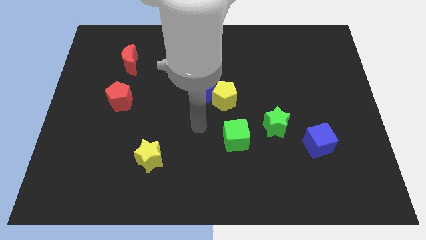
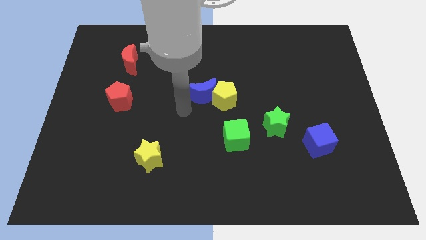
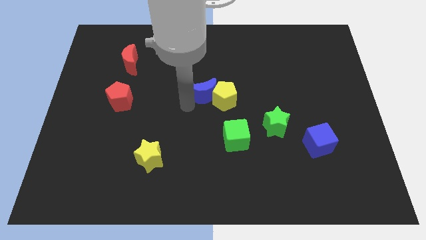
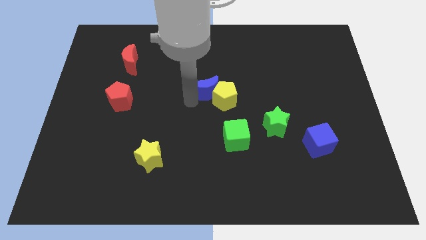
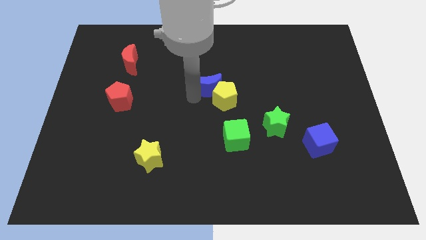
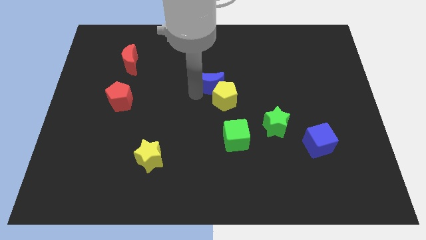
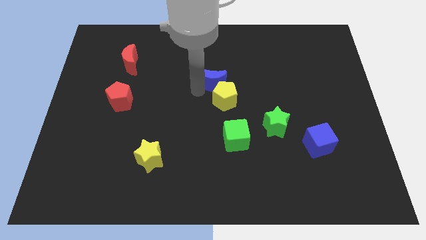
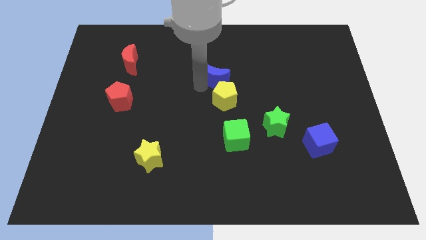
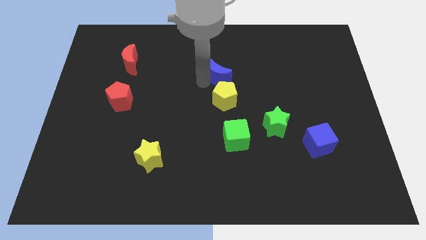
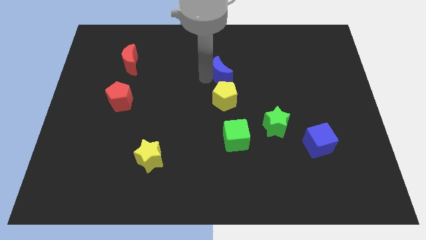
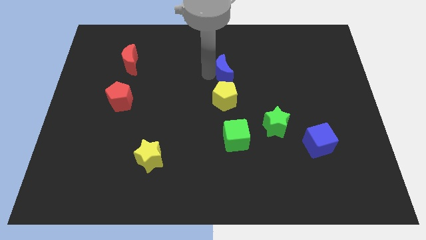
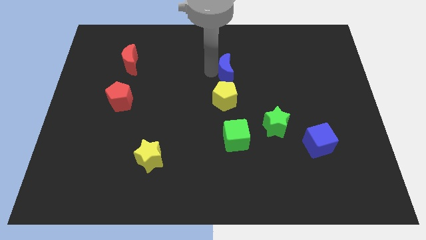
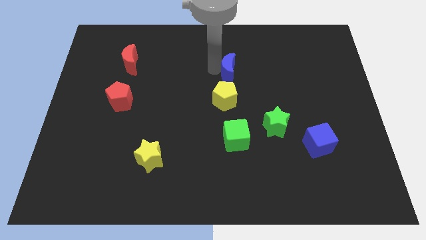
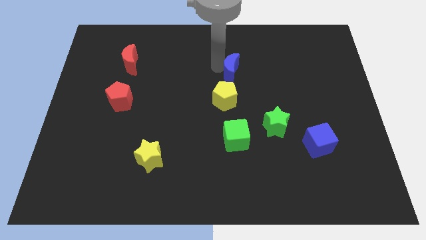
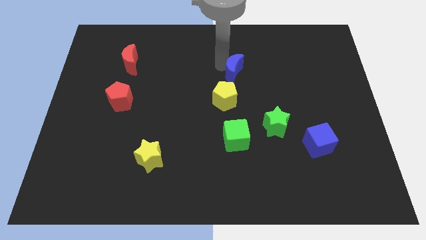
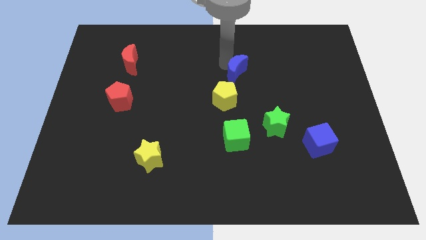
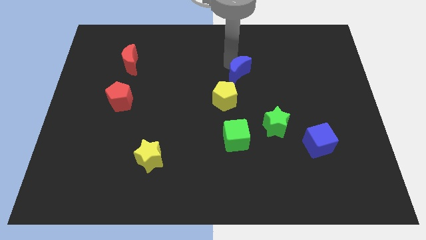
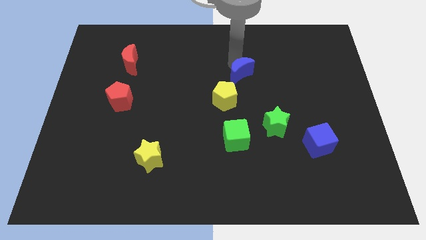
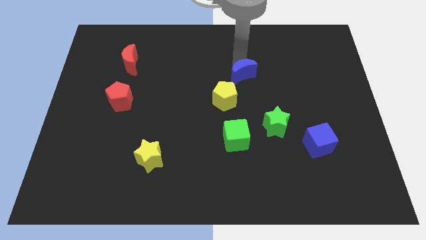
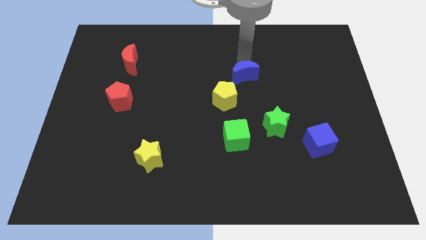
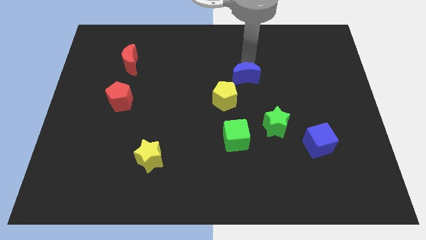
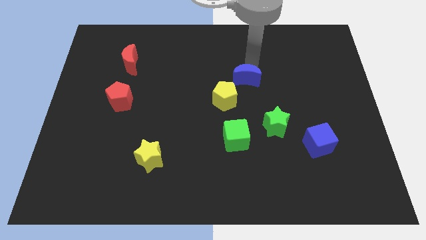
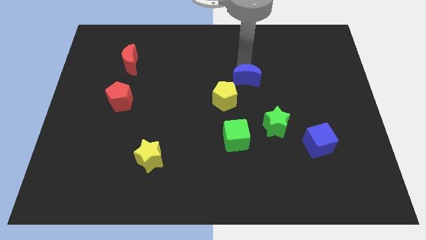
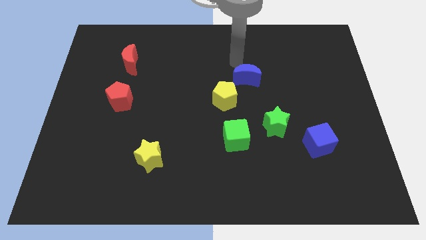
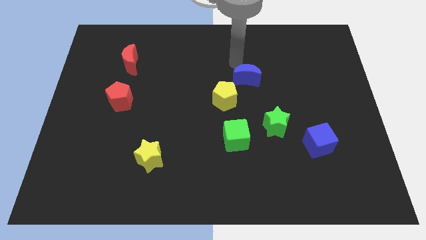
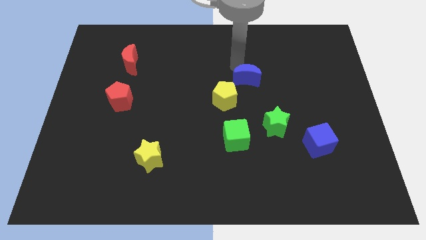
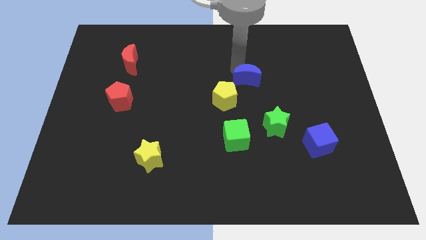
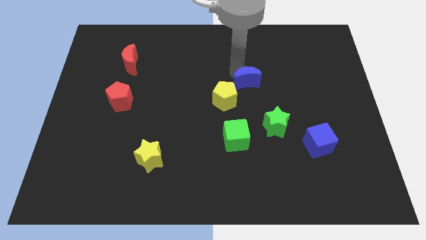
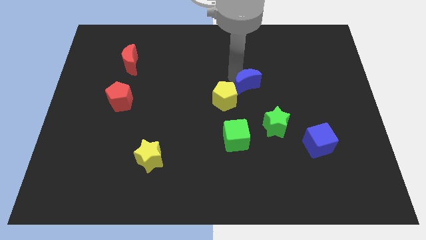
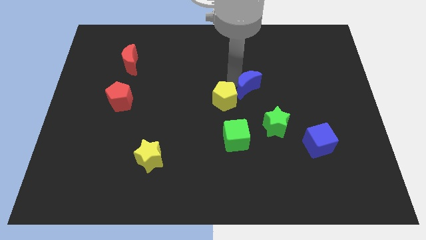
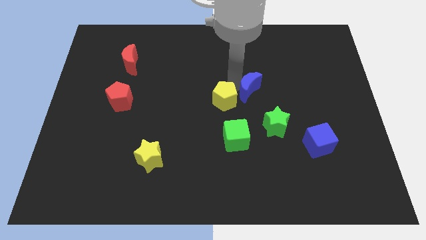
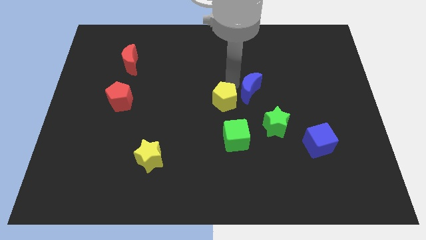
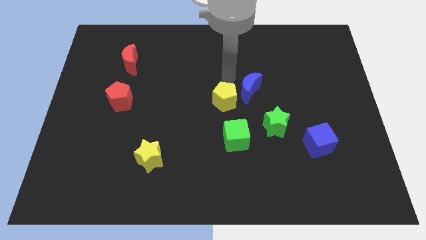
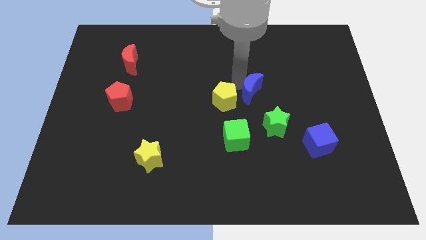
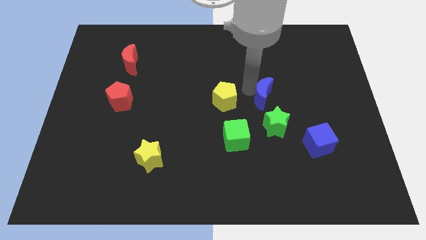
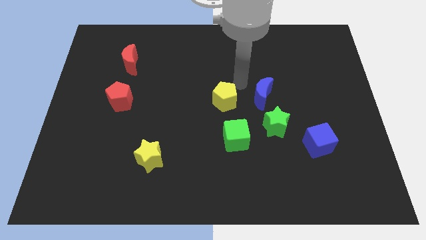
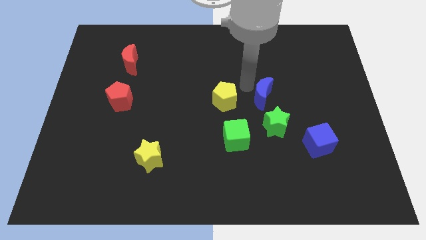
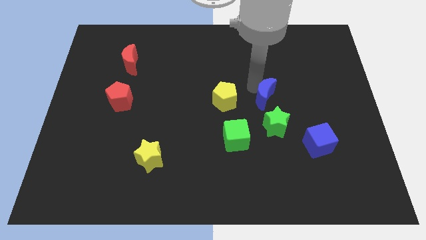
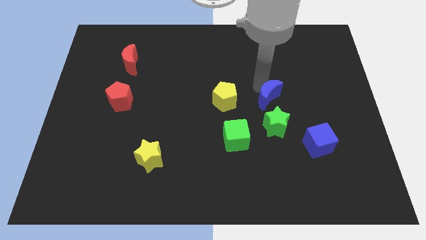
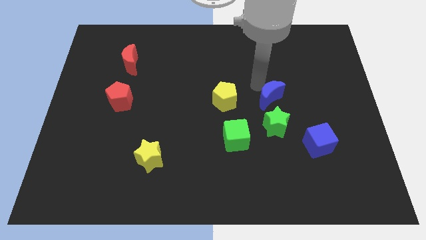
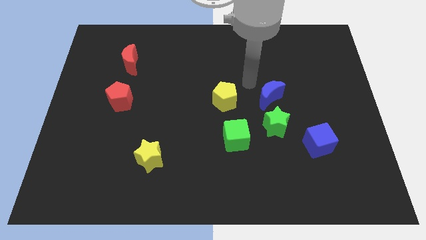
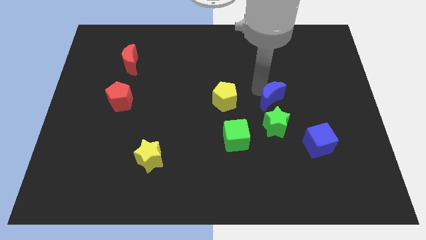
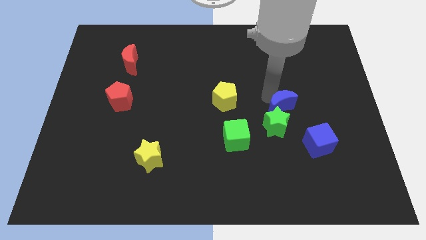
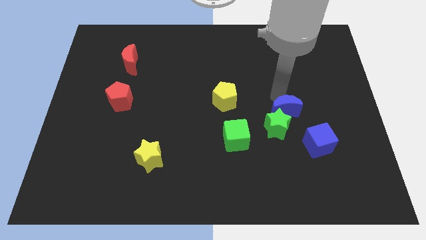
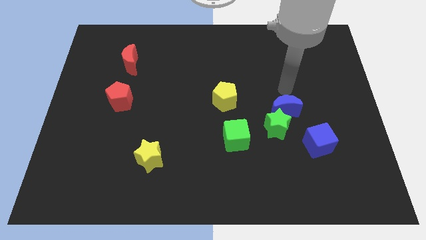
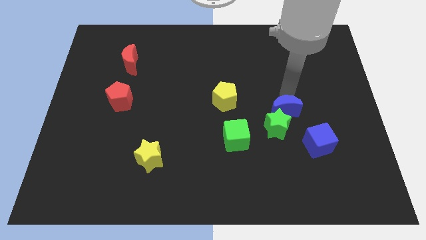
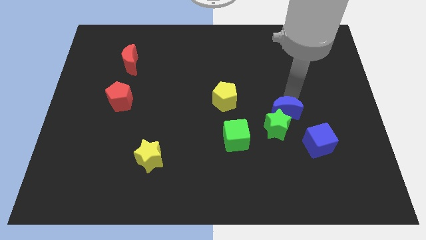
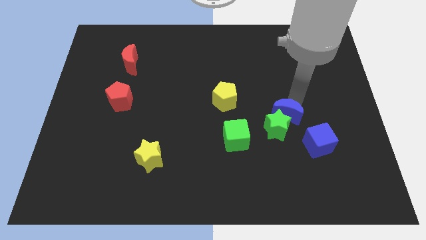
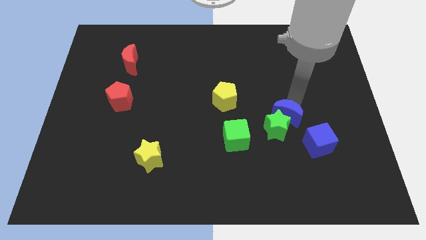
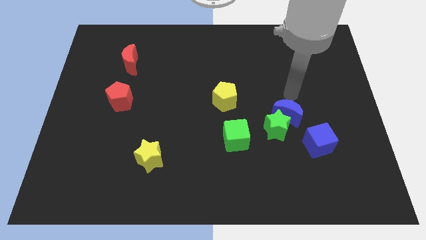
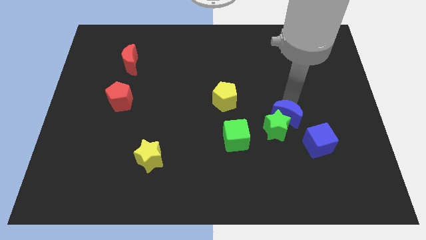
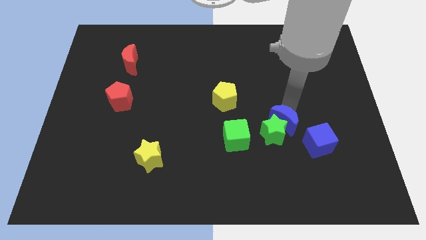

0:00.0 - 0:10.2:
move the blue moon right of the green cube

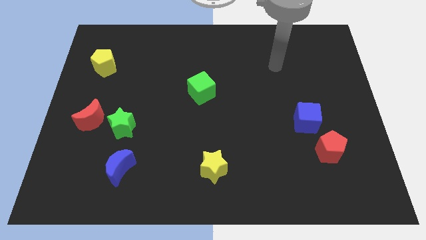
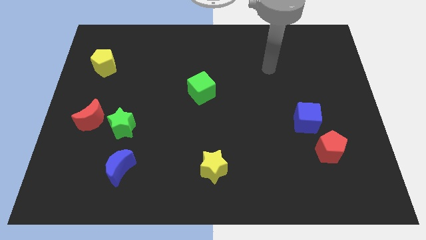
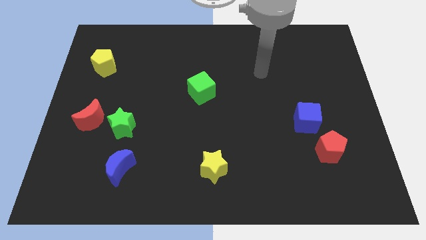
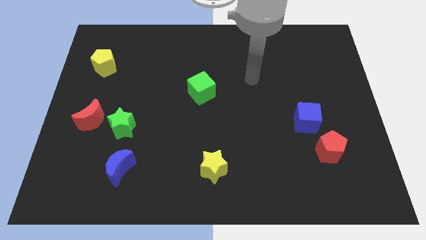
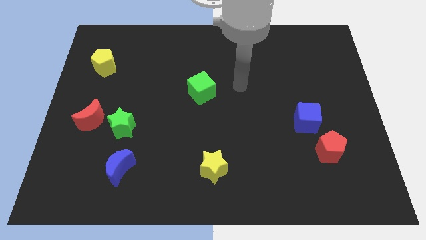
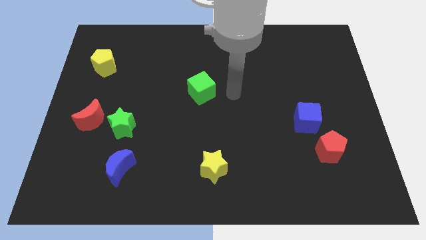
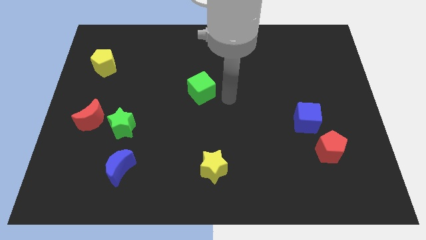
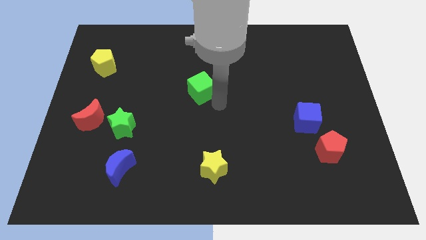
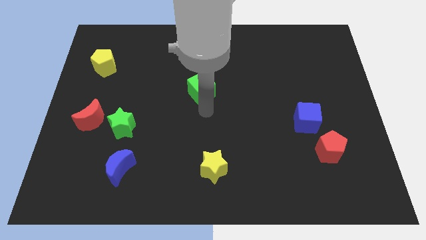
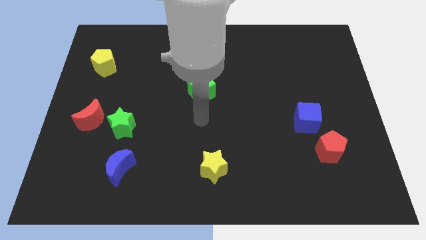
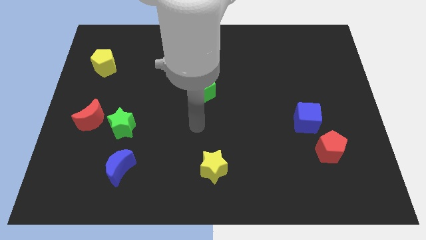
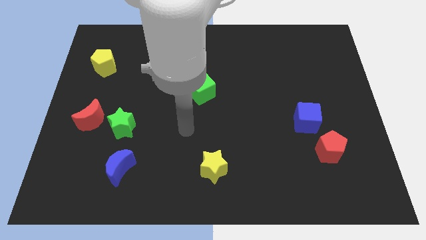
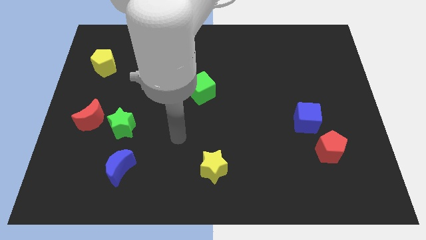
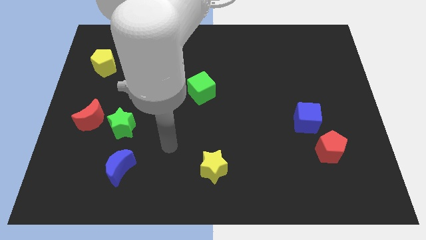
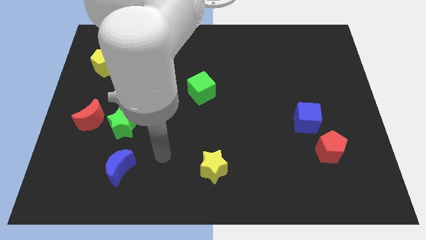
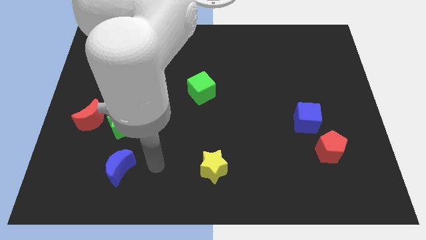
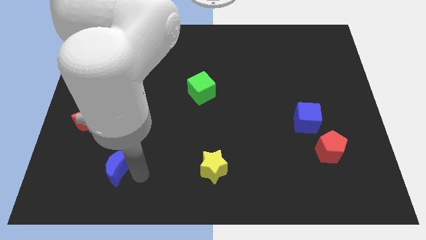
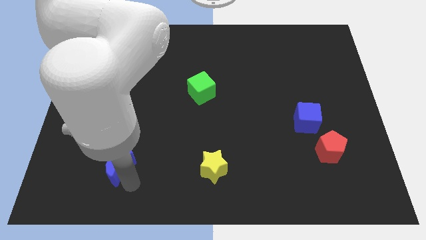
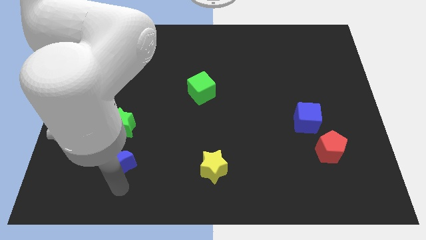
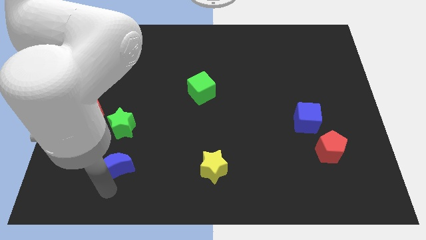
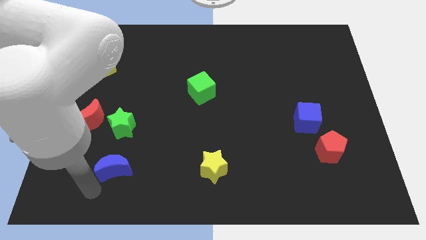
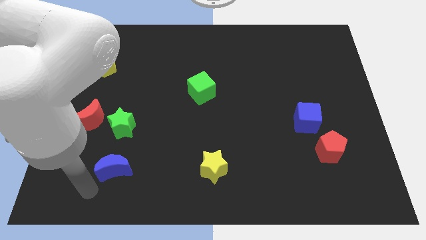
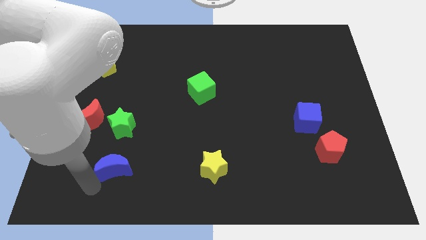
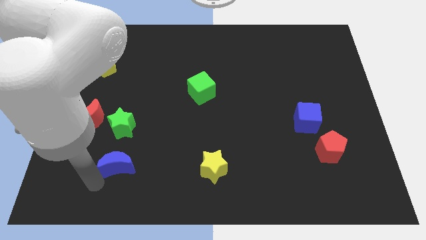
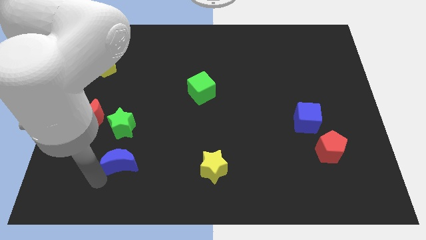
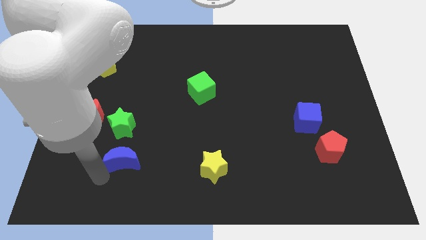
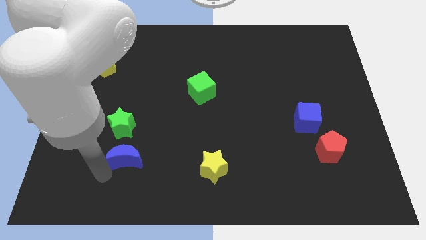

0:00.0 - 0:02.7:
move the blue moon to the bottom right of the green star

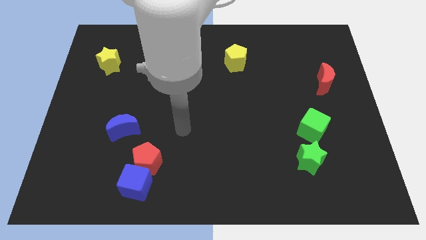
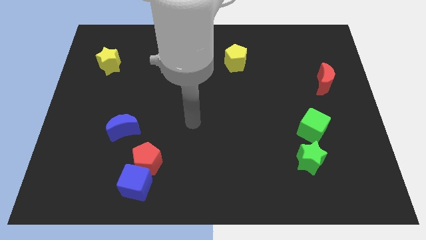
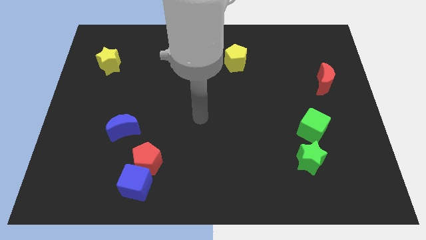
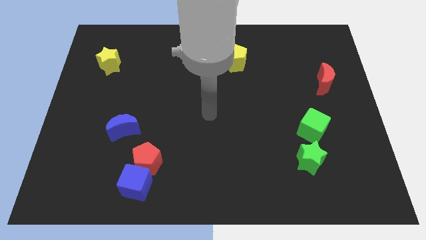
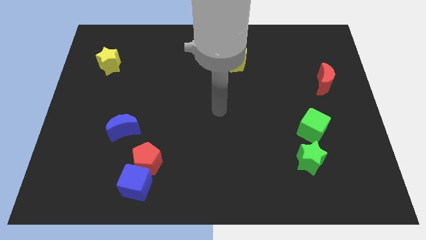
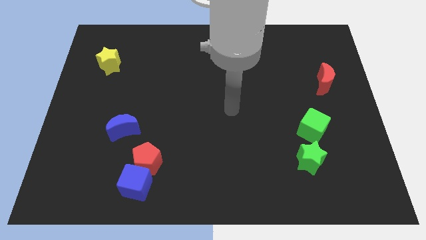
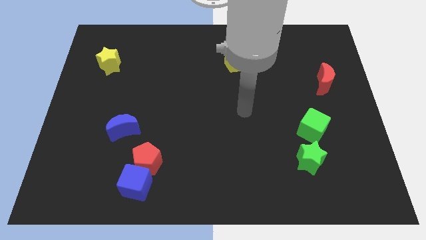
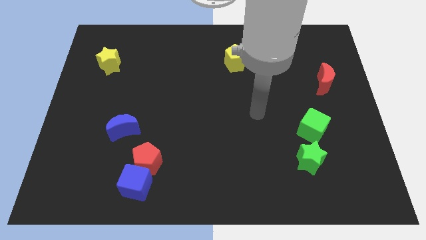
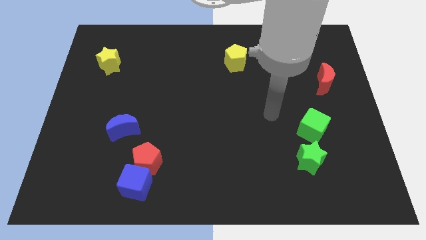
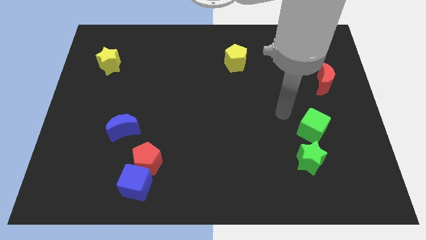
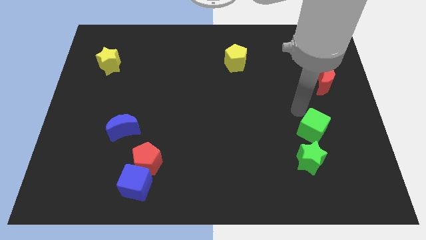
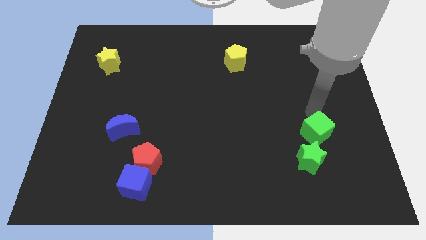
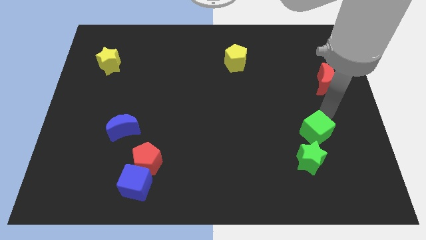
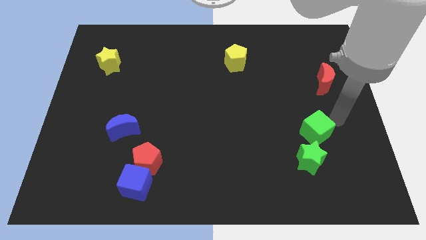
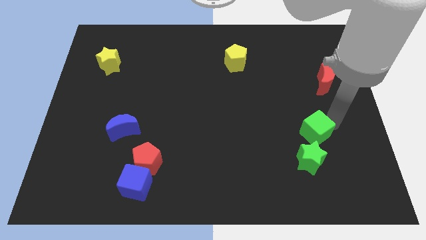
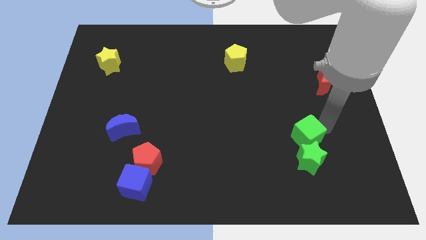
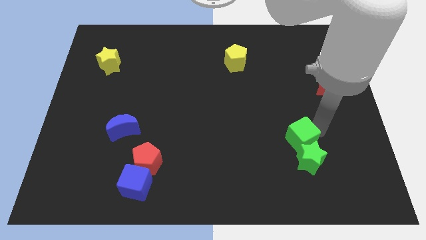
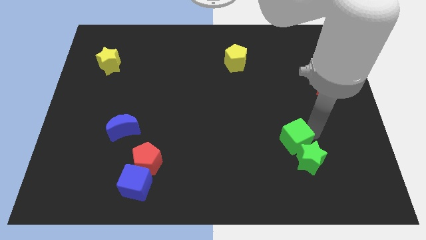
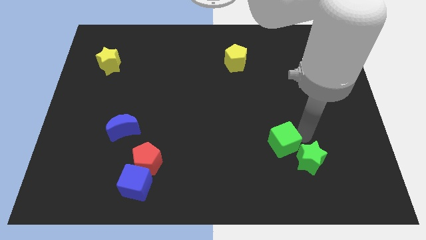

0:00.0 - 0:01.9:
slide the green cube just left of the green star
